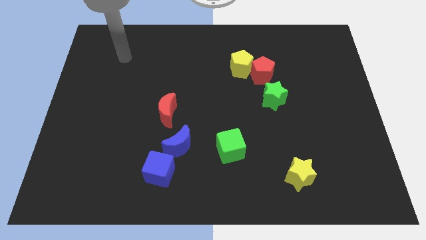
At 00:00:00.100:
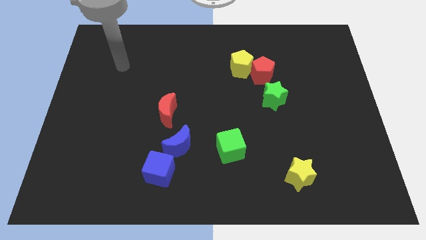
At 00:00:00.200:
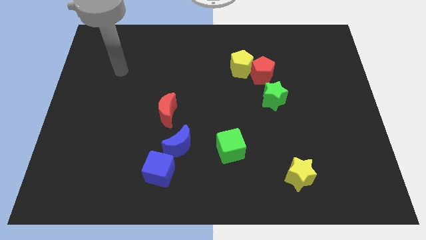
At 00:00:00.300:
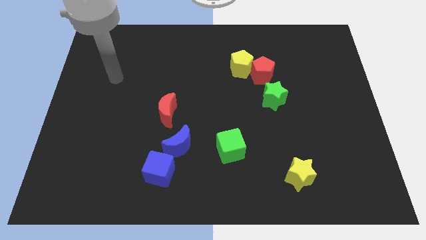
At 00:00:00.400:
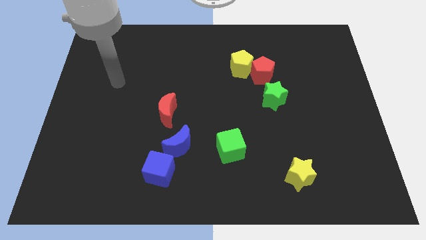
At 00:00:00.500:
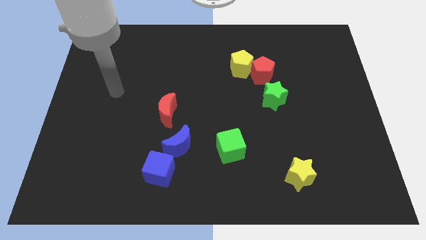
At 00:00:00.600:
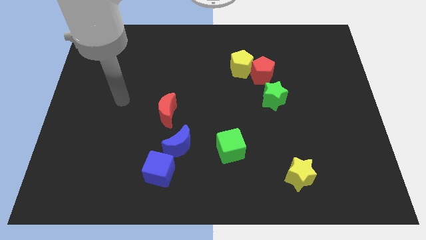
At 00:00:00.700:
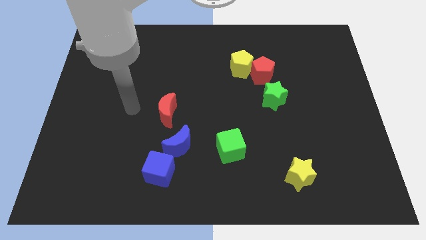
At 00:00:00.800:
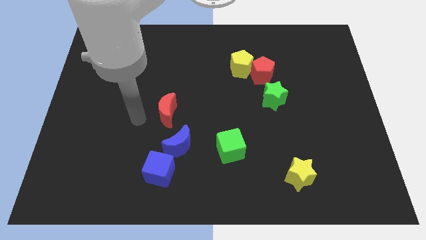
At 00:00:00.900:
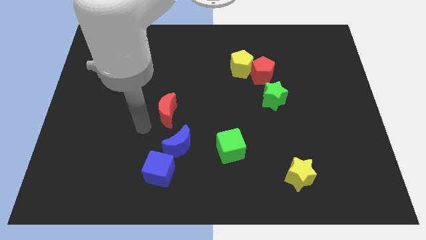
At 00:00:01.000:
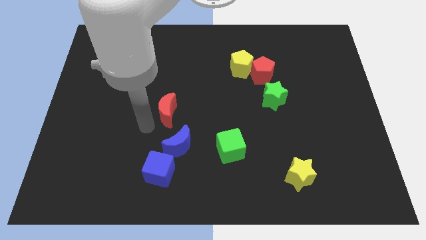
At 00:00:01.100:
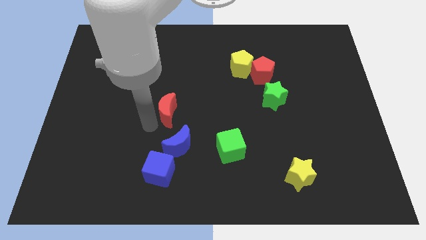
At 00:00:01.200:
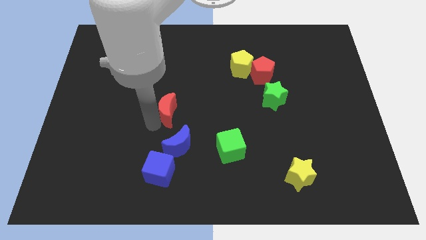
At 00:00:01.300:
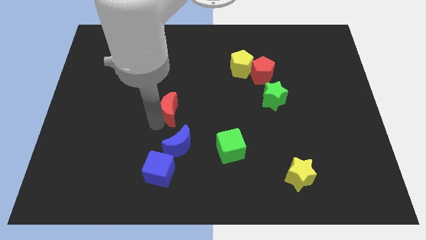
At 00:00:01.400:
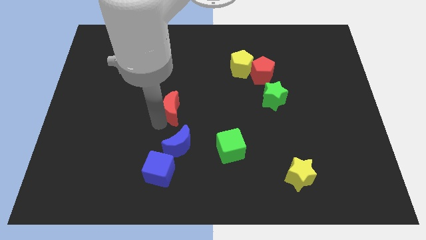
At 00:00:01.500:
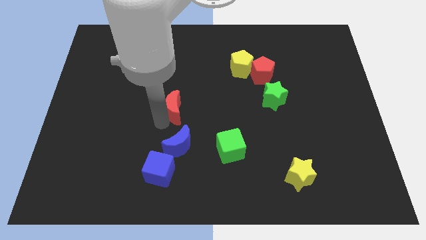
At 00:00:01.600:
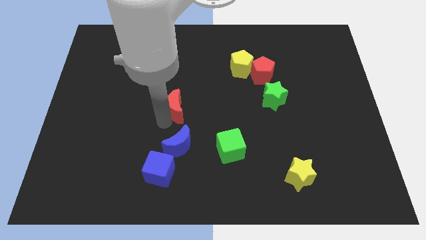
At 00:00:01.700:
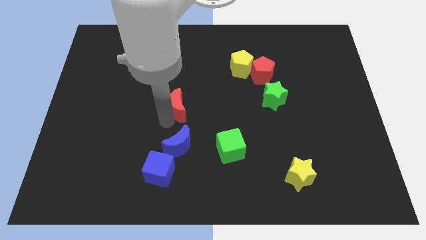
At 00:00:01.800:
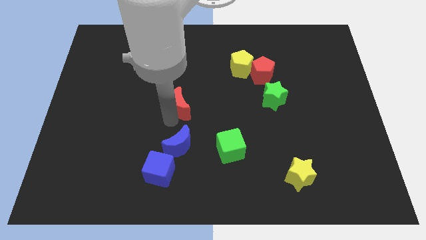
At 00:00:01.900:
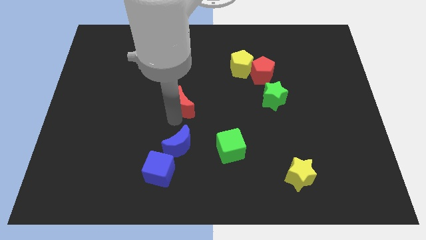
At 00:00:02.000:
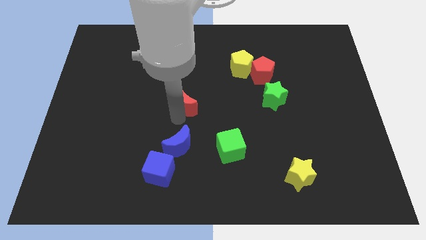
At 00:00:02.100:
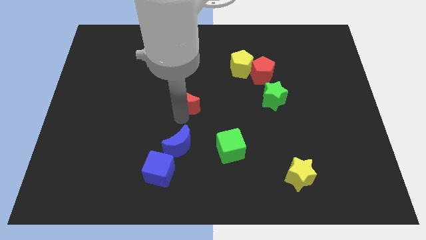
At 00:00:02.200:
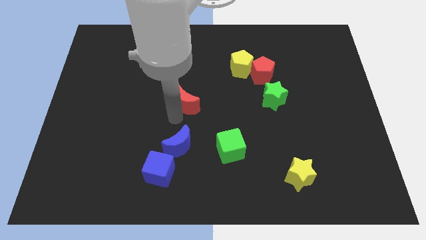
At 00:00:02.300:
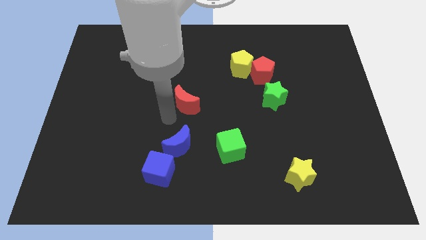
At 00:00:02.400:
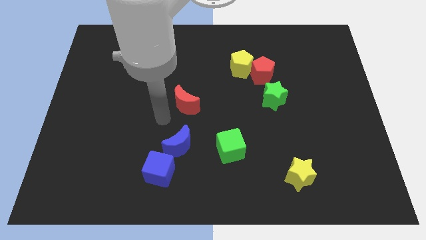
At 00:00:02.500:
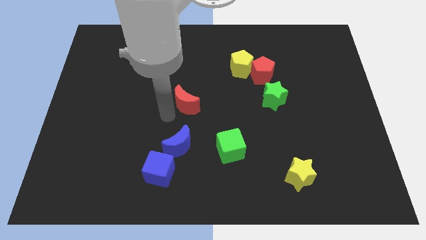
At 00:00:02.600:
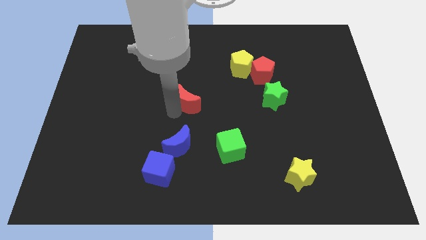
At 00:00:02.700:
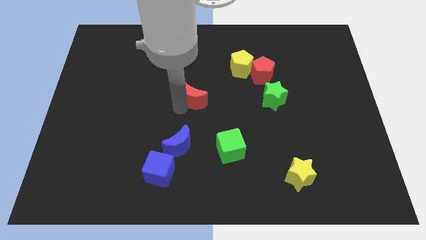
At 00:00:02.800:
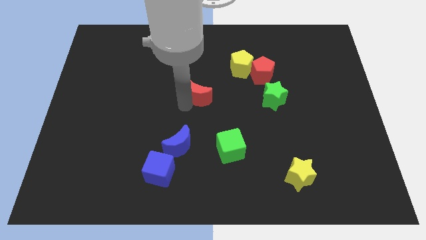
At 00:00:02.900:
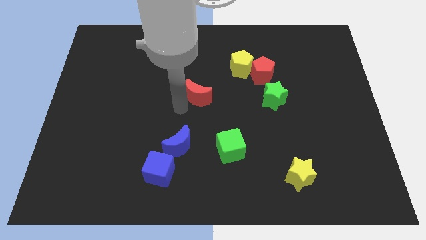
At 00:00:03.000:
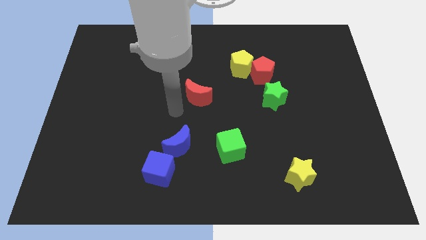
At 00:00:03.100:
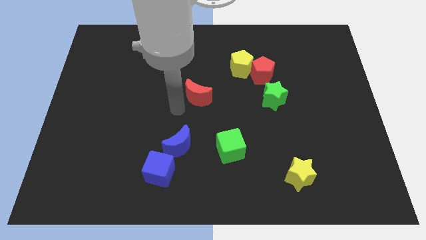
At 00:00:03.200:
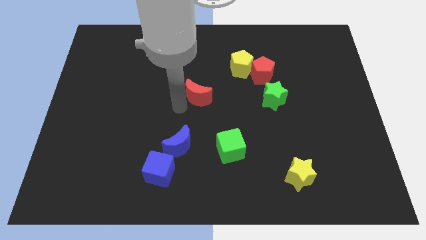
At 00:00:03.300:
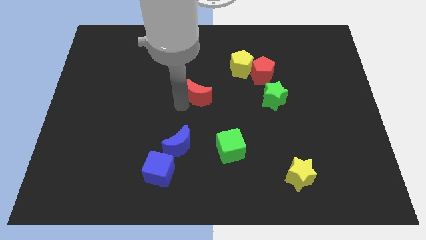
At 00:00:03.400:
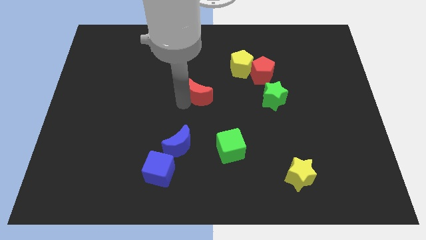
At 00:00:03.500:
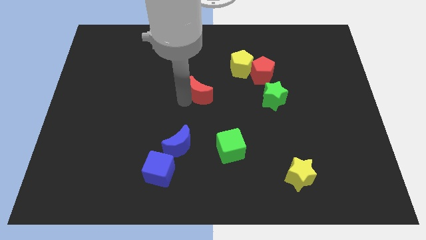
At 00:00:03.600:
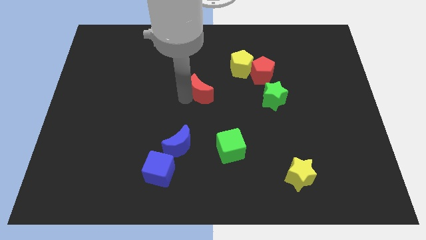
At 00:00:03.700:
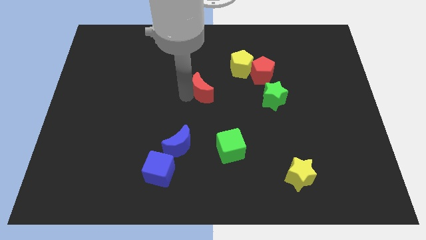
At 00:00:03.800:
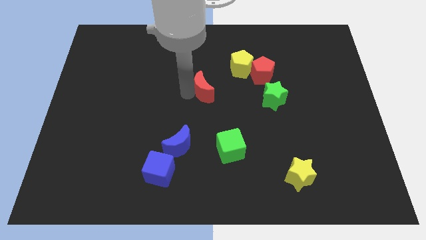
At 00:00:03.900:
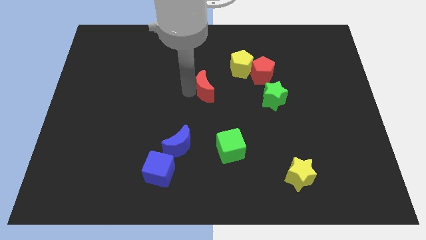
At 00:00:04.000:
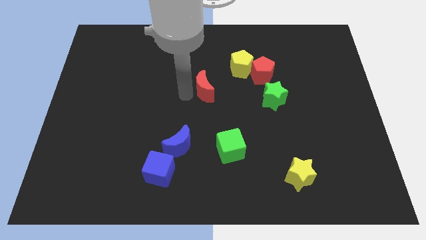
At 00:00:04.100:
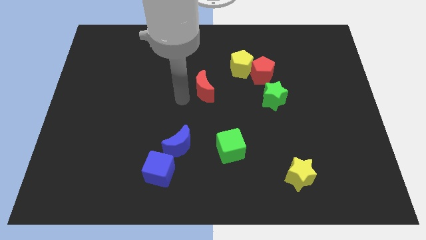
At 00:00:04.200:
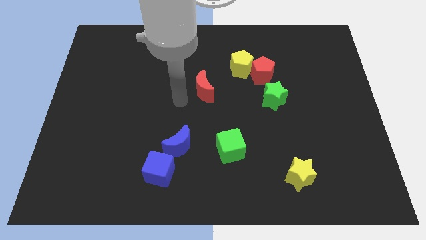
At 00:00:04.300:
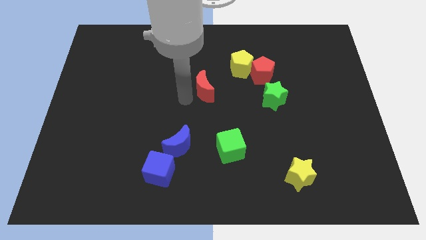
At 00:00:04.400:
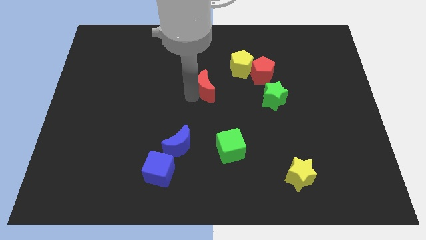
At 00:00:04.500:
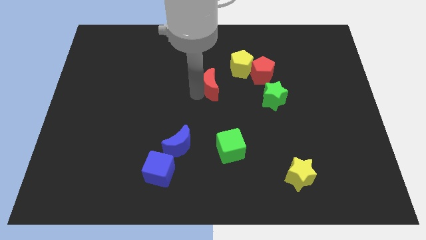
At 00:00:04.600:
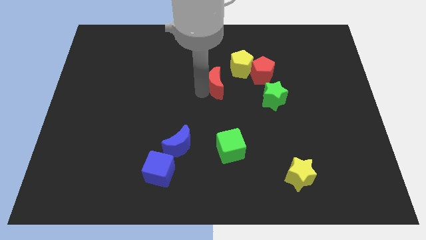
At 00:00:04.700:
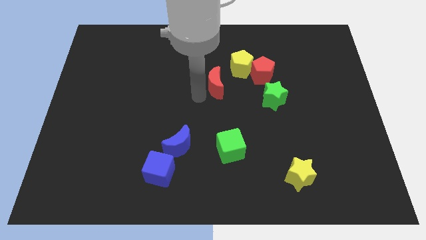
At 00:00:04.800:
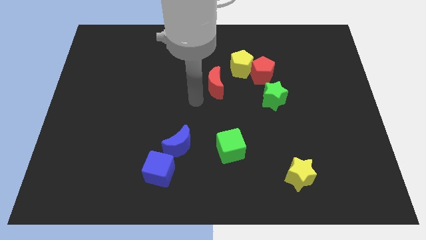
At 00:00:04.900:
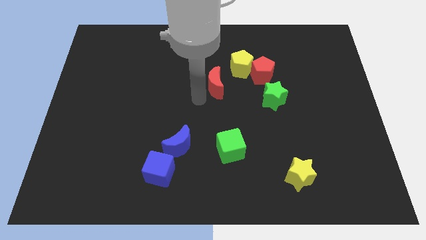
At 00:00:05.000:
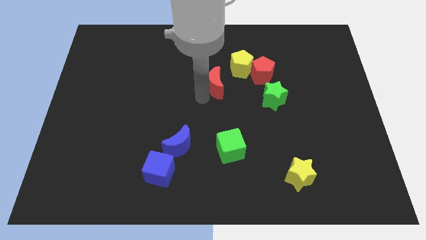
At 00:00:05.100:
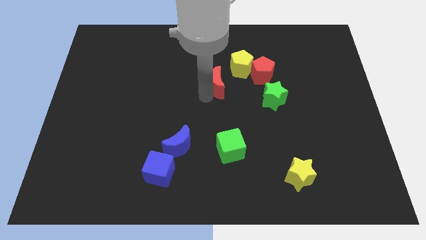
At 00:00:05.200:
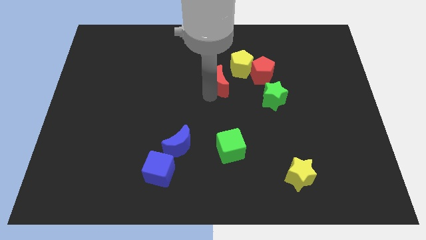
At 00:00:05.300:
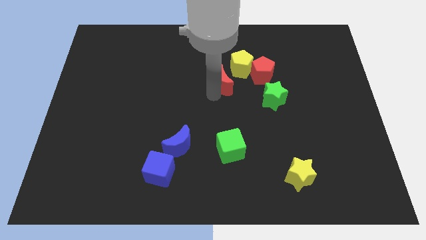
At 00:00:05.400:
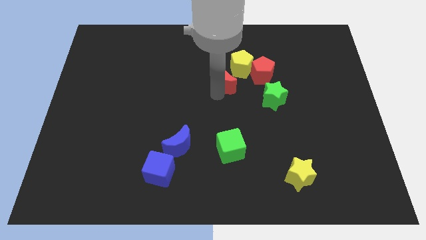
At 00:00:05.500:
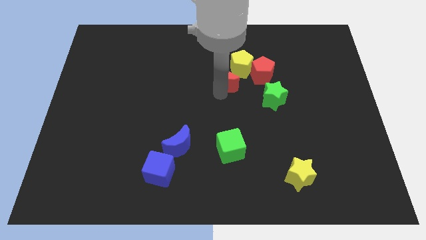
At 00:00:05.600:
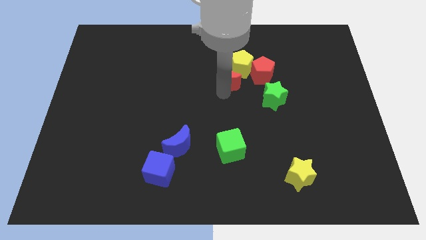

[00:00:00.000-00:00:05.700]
move the red moon to the yellow pentagon

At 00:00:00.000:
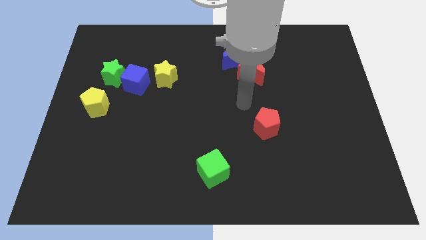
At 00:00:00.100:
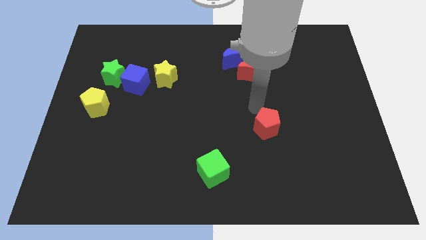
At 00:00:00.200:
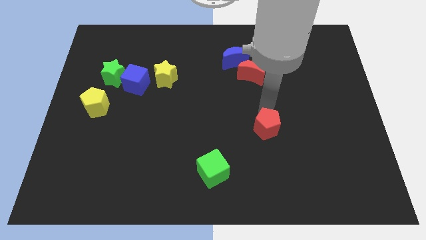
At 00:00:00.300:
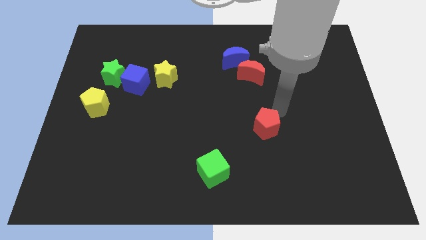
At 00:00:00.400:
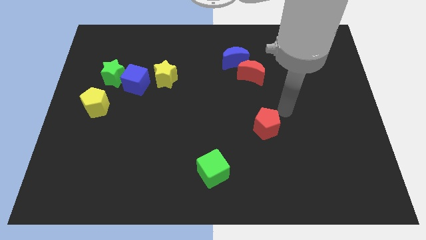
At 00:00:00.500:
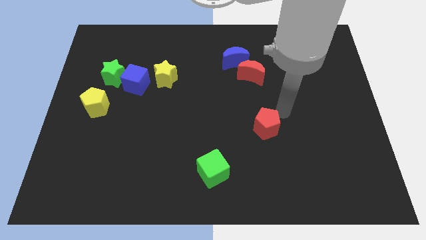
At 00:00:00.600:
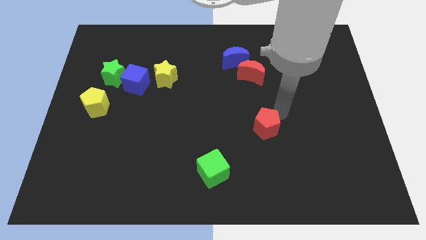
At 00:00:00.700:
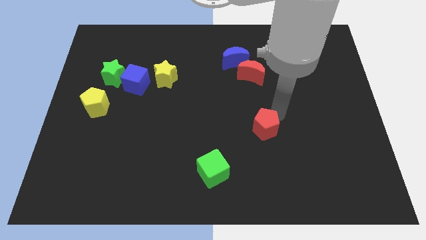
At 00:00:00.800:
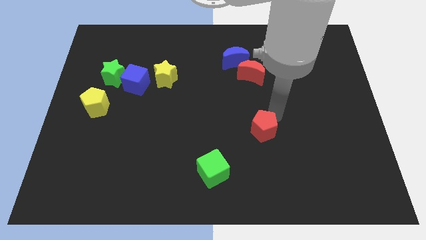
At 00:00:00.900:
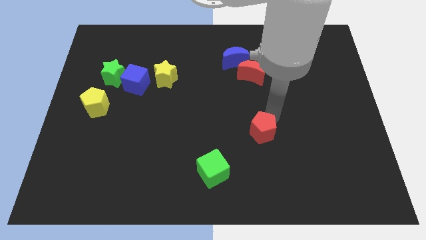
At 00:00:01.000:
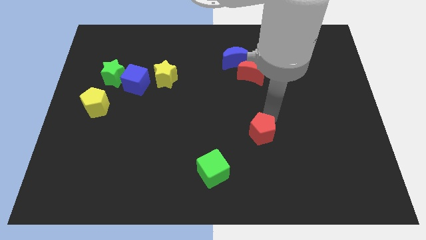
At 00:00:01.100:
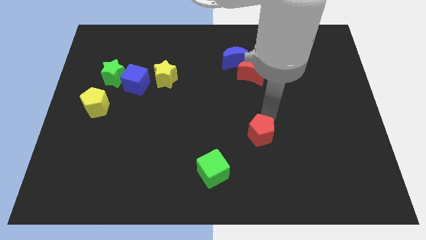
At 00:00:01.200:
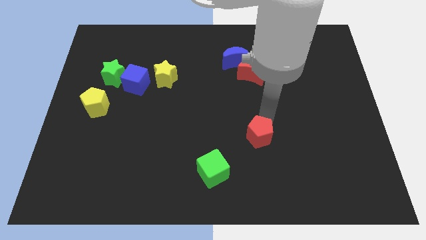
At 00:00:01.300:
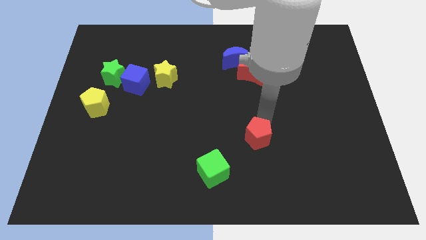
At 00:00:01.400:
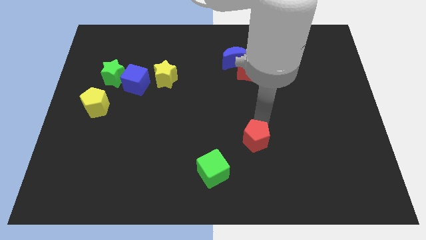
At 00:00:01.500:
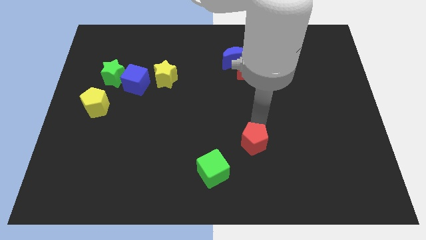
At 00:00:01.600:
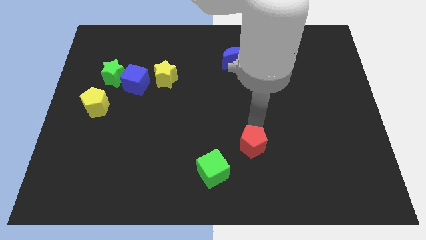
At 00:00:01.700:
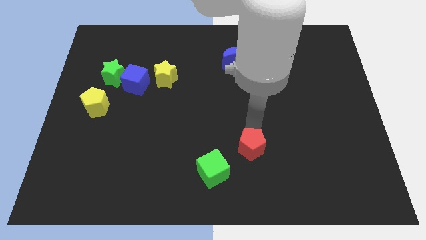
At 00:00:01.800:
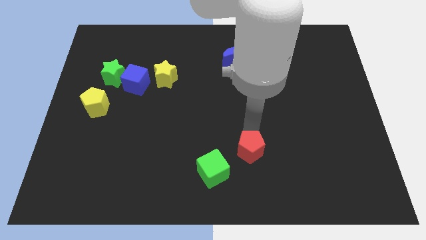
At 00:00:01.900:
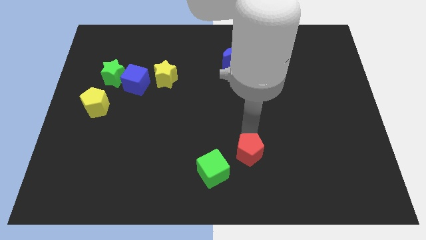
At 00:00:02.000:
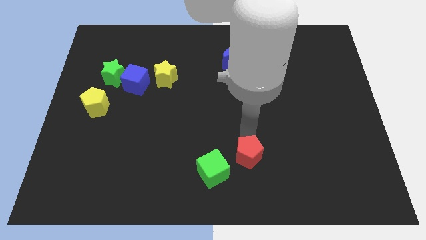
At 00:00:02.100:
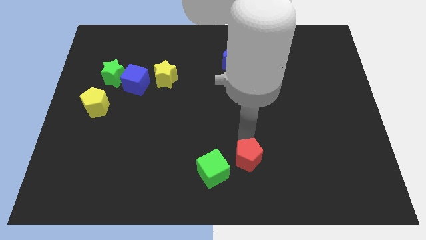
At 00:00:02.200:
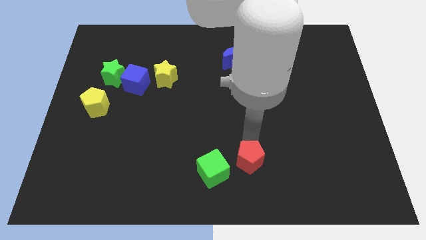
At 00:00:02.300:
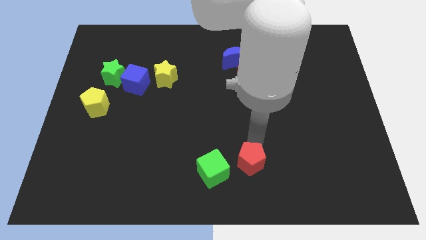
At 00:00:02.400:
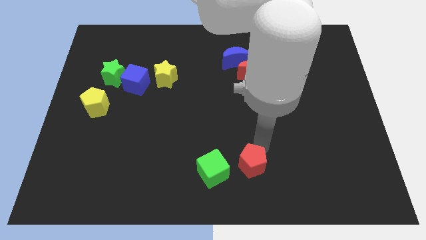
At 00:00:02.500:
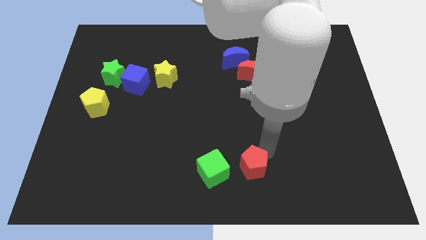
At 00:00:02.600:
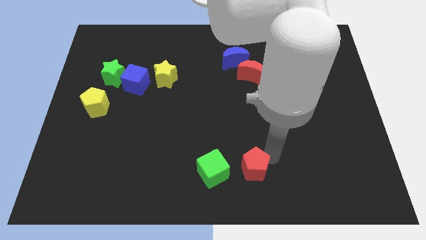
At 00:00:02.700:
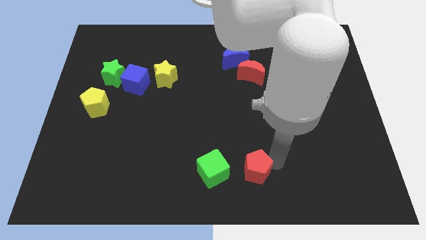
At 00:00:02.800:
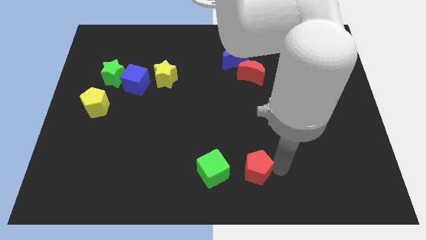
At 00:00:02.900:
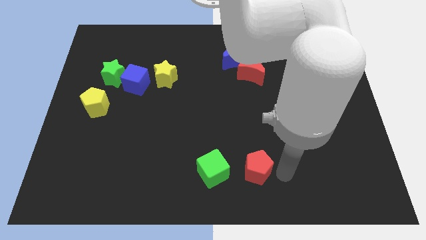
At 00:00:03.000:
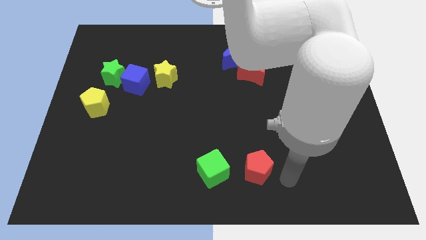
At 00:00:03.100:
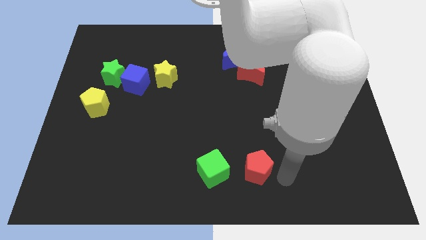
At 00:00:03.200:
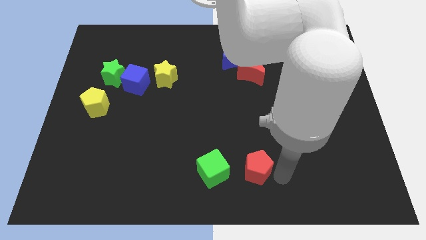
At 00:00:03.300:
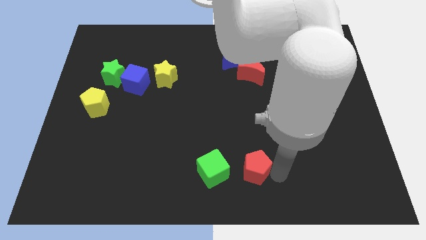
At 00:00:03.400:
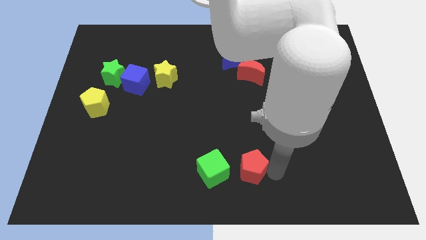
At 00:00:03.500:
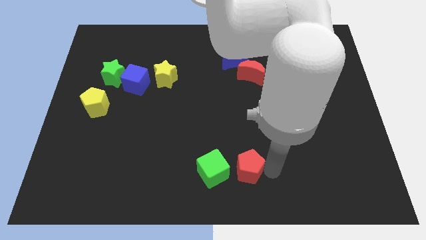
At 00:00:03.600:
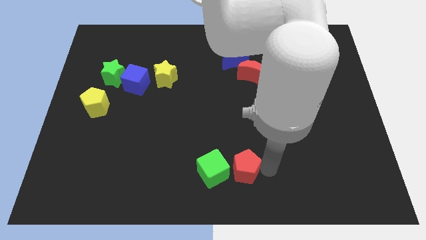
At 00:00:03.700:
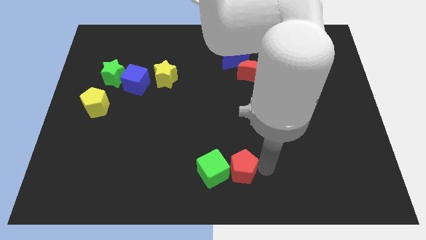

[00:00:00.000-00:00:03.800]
move the red pentagon close to the green cube
